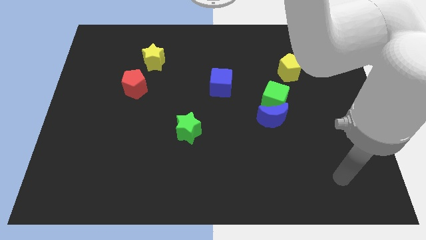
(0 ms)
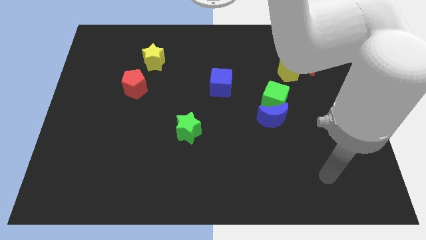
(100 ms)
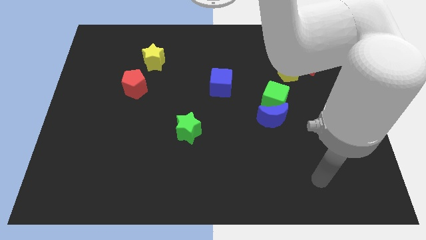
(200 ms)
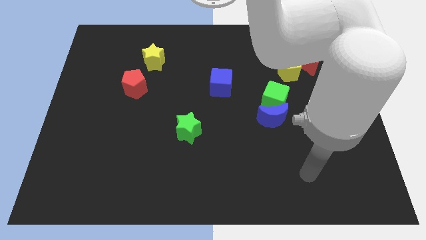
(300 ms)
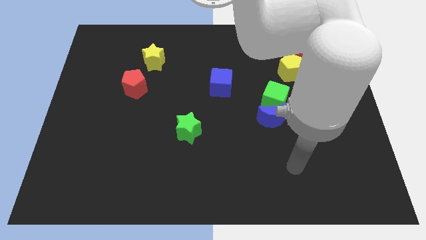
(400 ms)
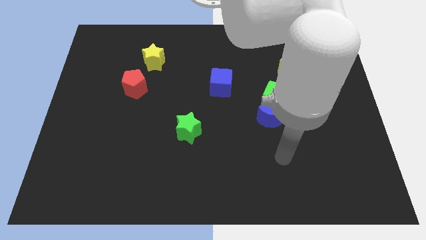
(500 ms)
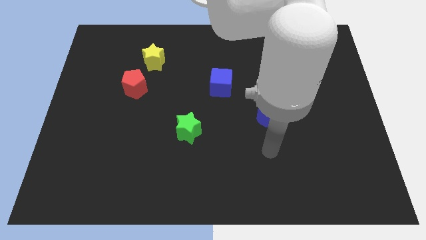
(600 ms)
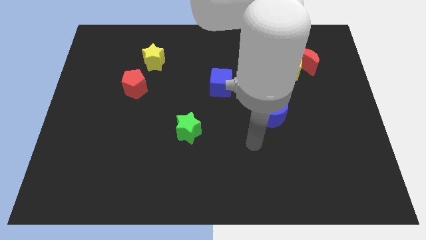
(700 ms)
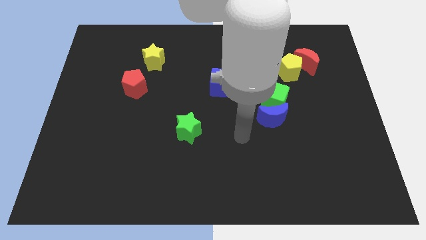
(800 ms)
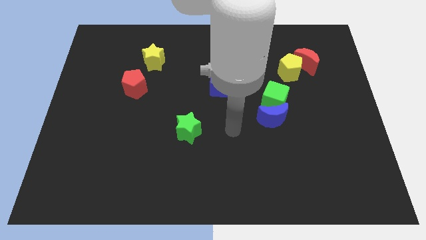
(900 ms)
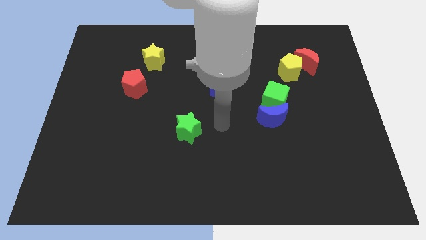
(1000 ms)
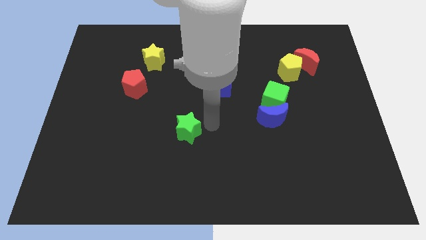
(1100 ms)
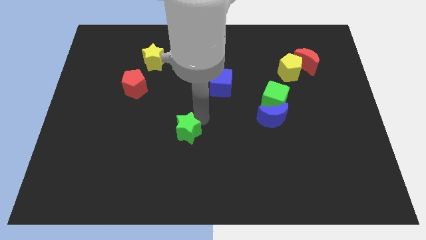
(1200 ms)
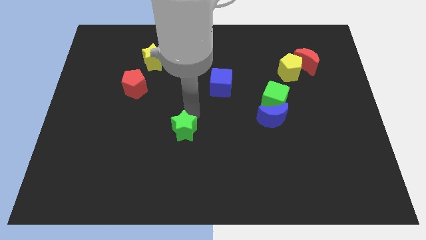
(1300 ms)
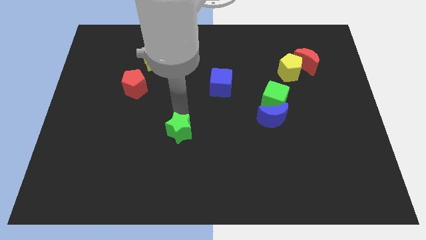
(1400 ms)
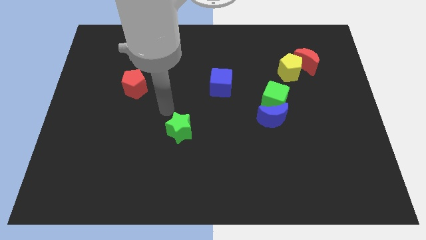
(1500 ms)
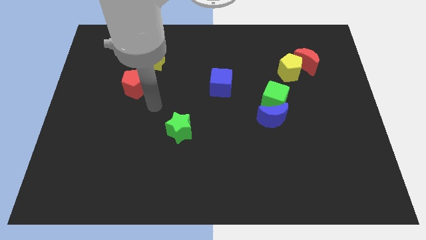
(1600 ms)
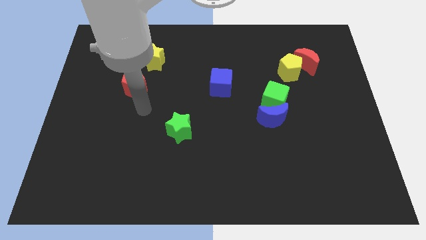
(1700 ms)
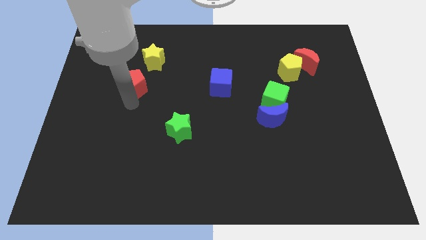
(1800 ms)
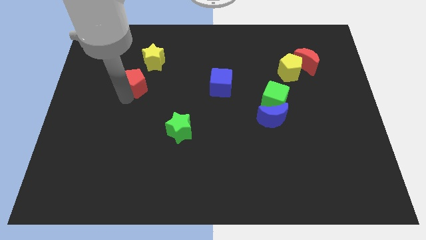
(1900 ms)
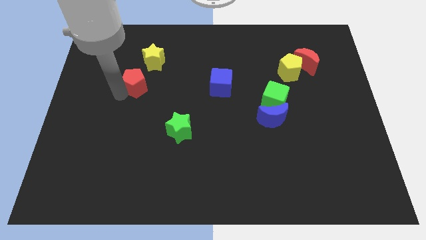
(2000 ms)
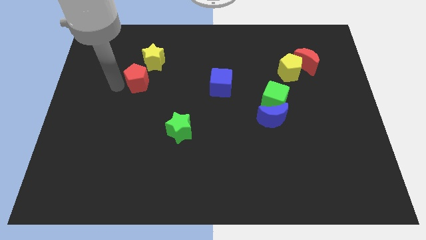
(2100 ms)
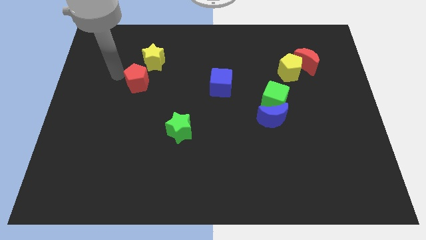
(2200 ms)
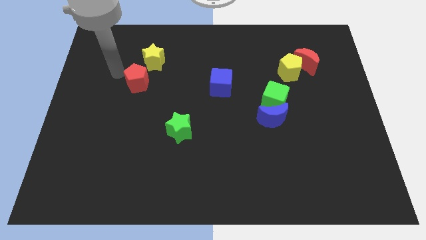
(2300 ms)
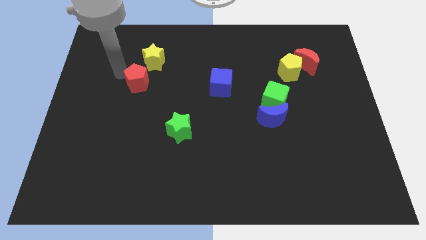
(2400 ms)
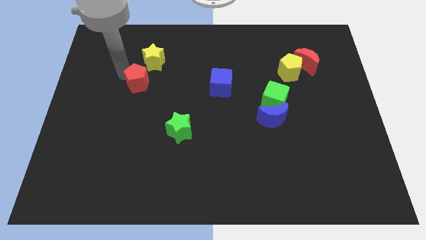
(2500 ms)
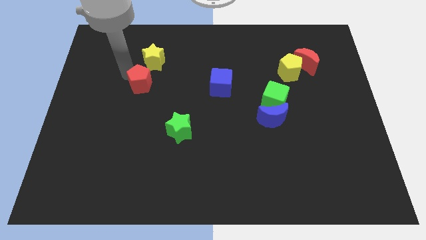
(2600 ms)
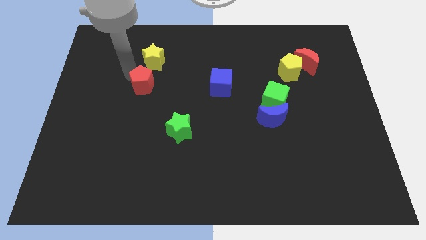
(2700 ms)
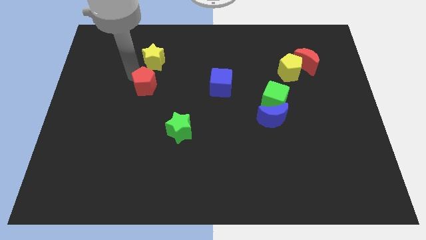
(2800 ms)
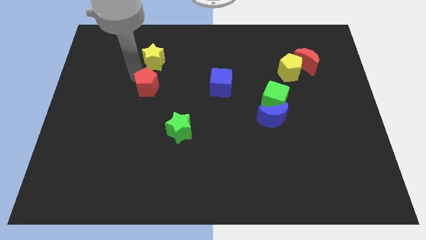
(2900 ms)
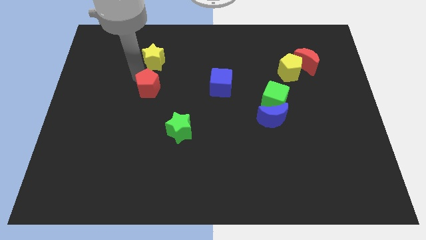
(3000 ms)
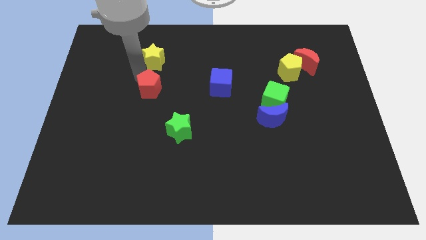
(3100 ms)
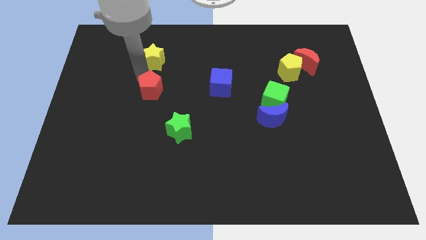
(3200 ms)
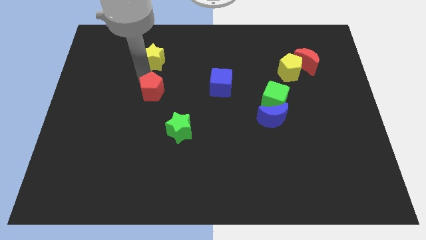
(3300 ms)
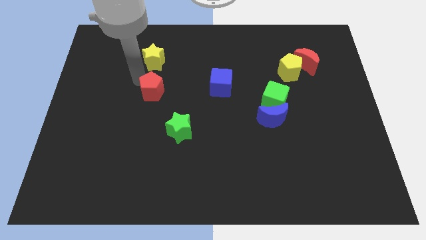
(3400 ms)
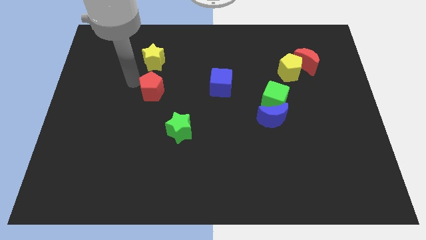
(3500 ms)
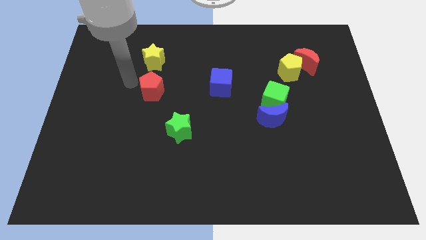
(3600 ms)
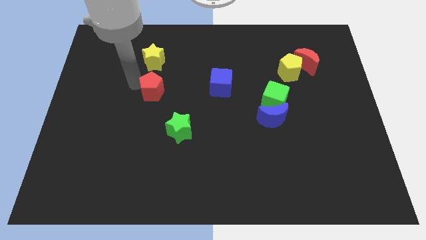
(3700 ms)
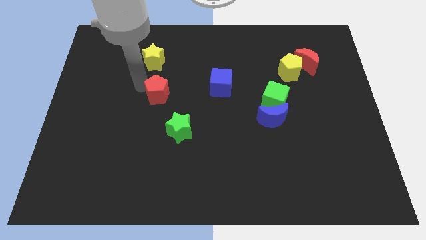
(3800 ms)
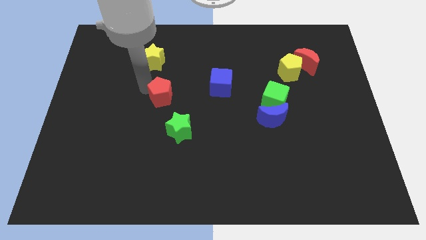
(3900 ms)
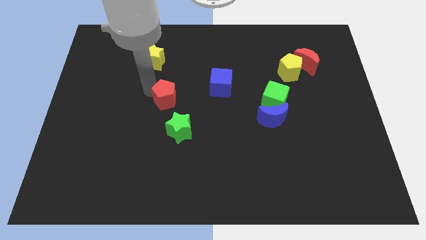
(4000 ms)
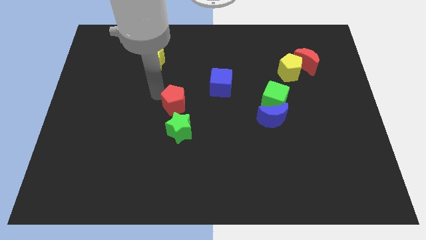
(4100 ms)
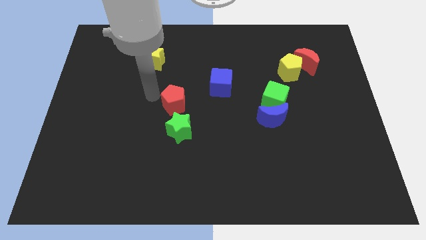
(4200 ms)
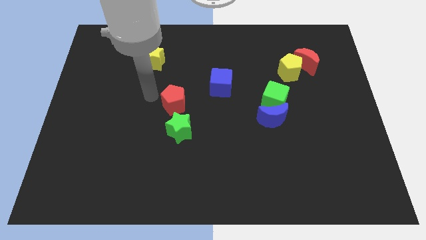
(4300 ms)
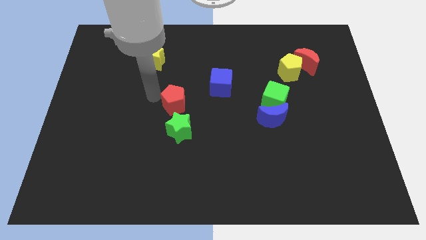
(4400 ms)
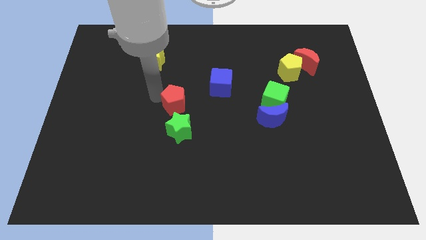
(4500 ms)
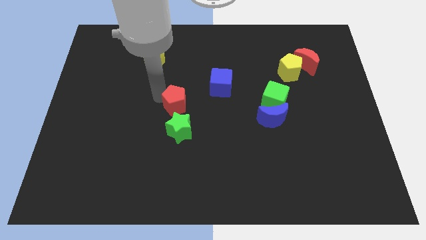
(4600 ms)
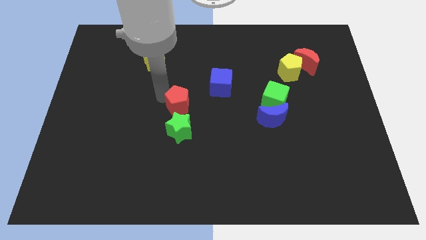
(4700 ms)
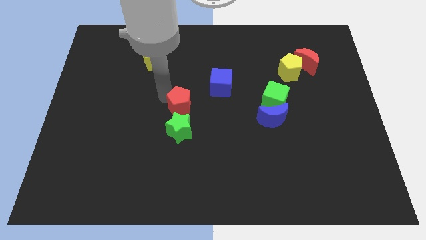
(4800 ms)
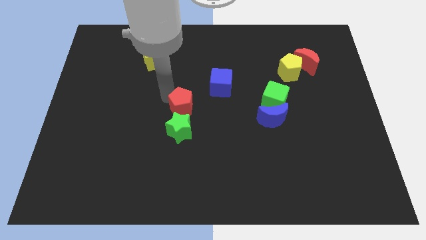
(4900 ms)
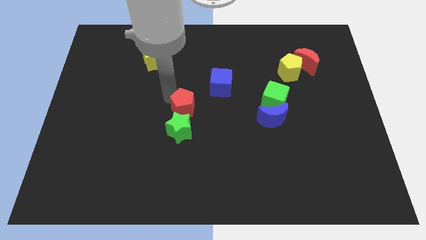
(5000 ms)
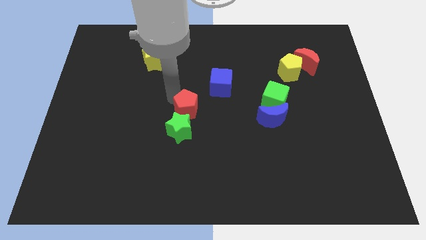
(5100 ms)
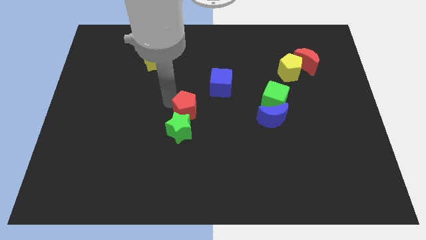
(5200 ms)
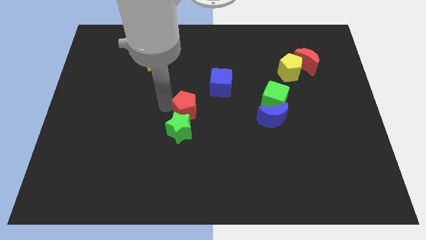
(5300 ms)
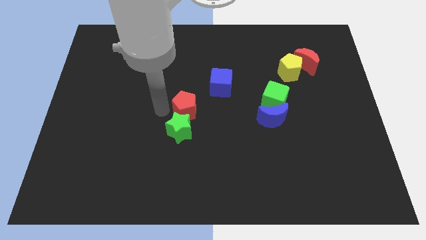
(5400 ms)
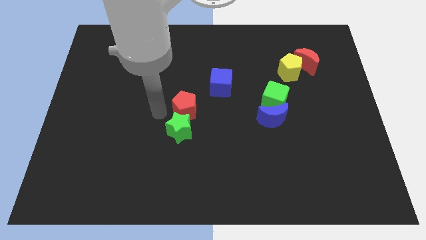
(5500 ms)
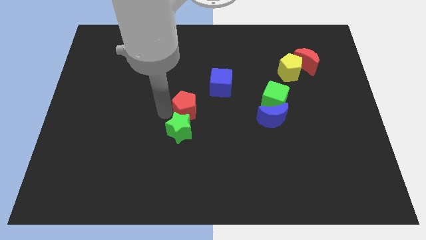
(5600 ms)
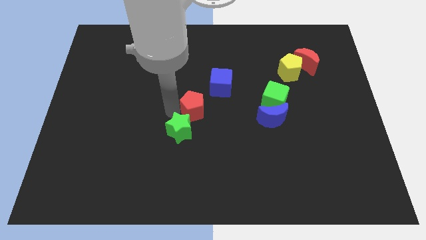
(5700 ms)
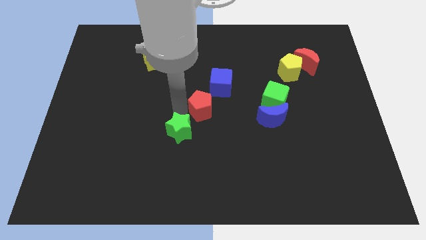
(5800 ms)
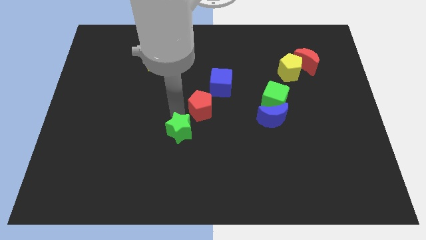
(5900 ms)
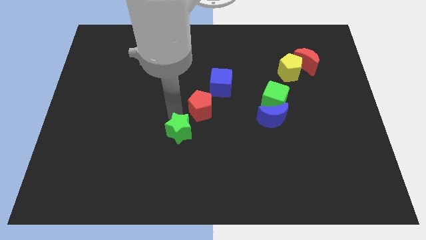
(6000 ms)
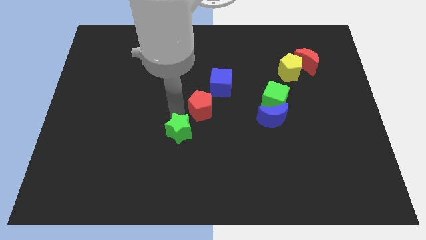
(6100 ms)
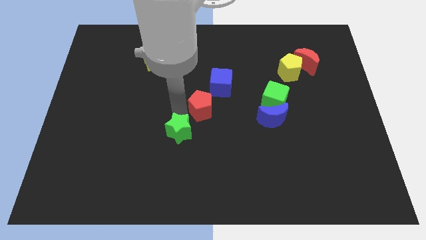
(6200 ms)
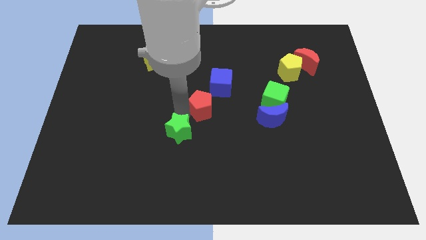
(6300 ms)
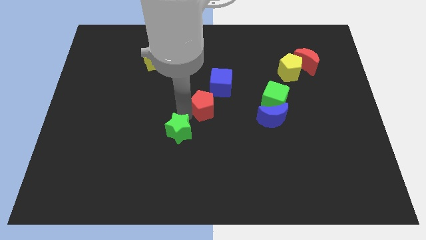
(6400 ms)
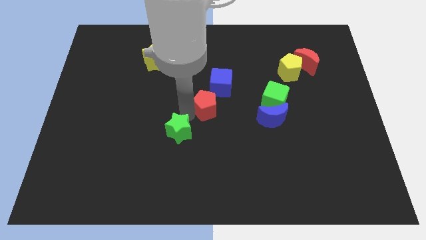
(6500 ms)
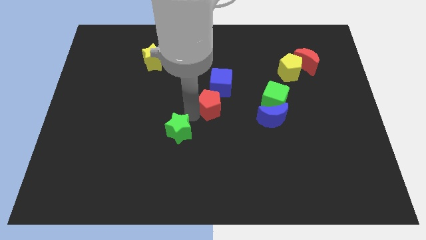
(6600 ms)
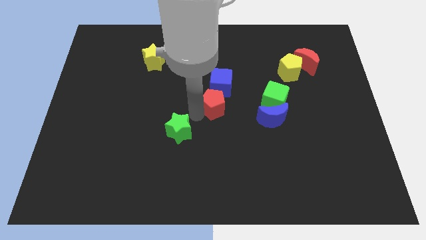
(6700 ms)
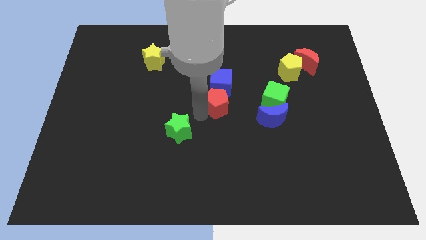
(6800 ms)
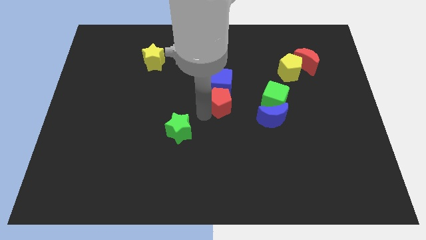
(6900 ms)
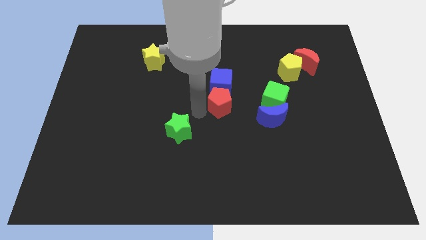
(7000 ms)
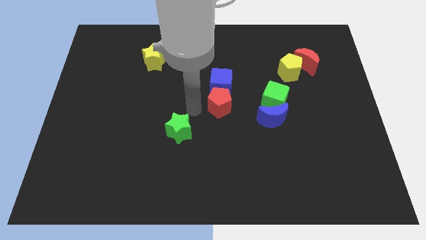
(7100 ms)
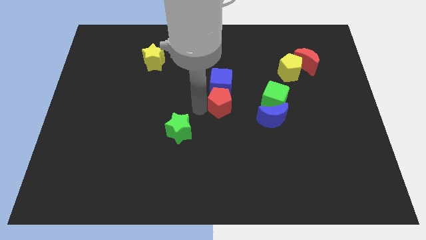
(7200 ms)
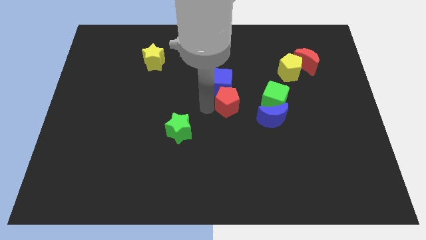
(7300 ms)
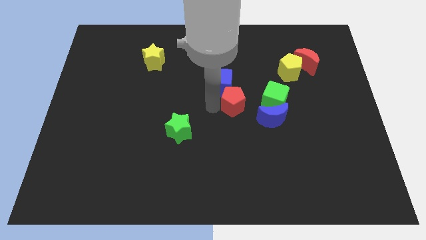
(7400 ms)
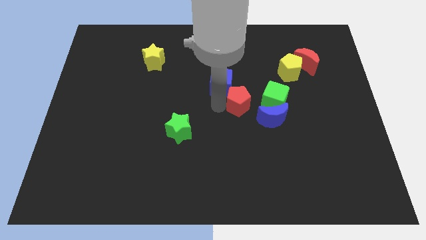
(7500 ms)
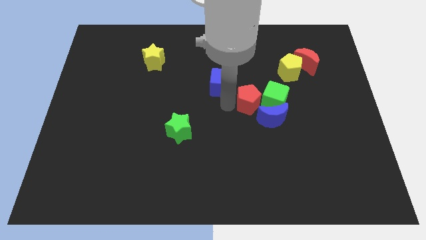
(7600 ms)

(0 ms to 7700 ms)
push the red pentagon next to the green cube
